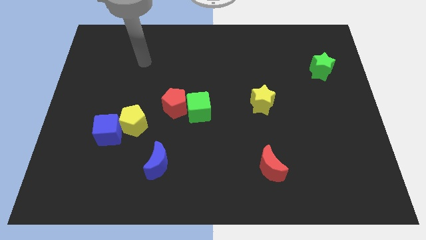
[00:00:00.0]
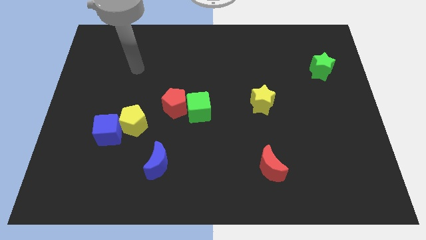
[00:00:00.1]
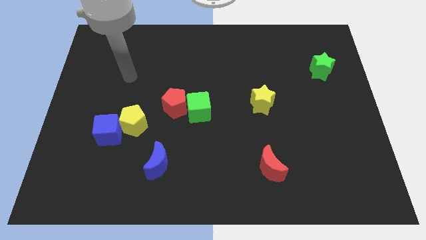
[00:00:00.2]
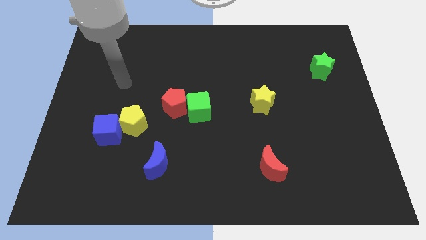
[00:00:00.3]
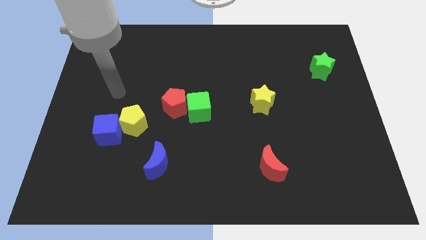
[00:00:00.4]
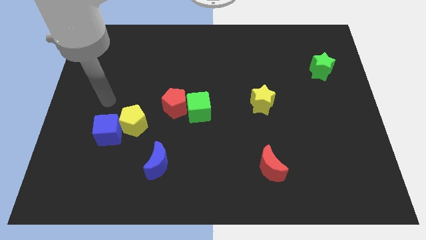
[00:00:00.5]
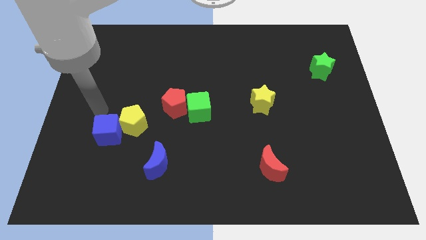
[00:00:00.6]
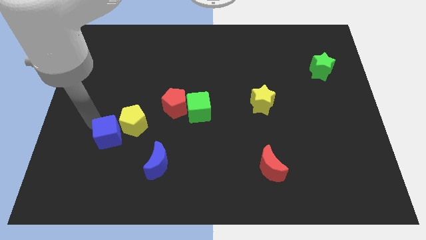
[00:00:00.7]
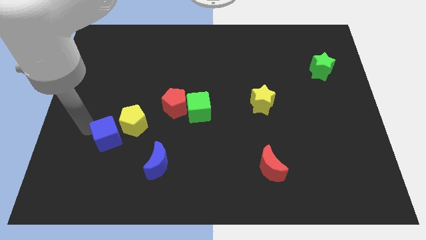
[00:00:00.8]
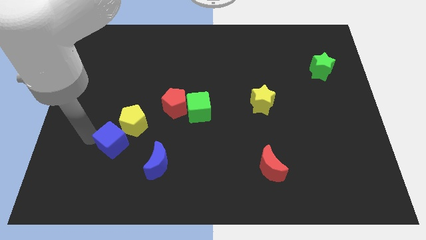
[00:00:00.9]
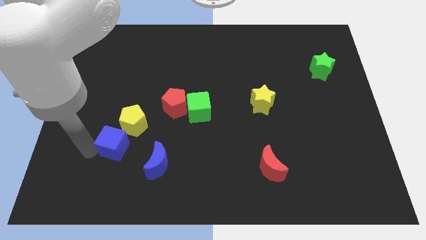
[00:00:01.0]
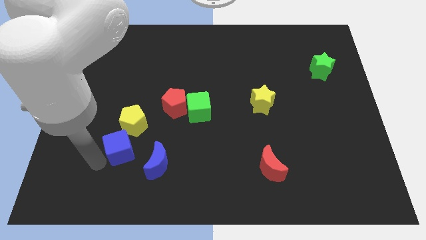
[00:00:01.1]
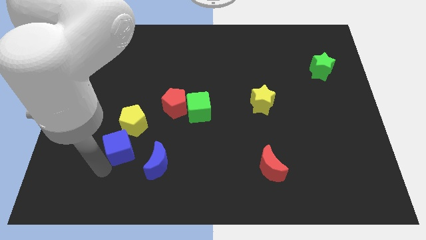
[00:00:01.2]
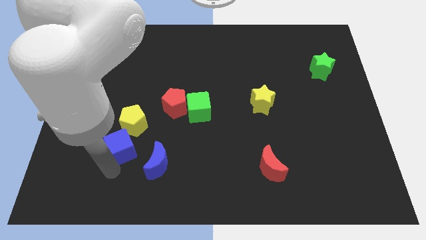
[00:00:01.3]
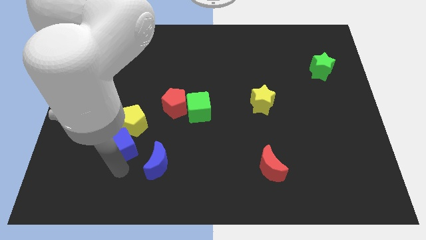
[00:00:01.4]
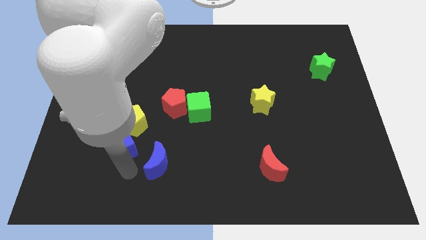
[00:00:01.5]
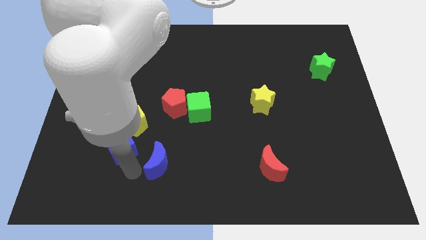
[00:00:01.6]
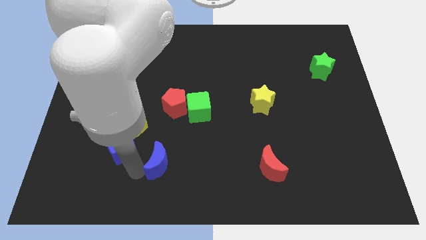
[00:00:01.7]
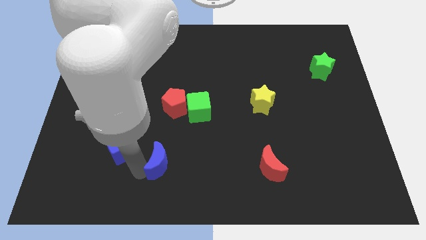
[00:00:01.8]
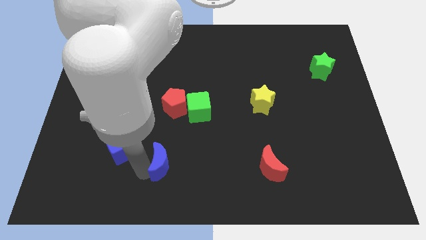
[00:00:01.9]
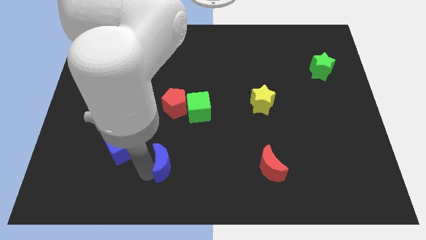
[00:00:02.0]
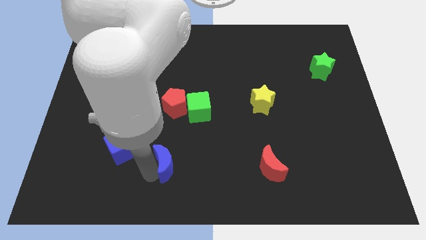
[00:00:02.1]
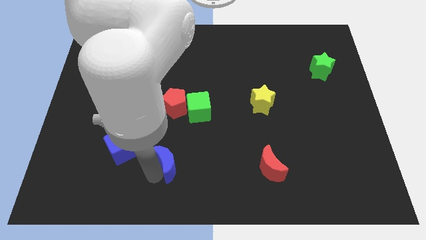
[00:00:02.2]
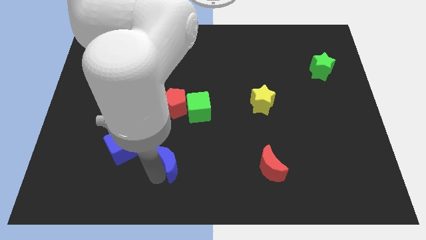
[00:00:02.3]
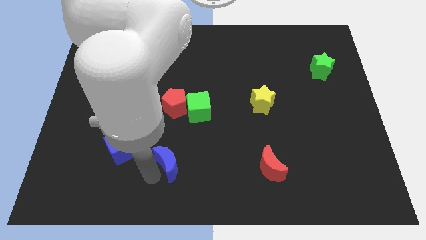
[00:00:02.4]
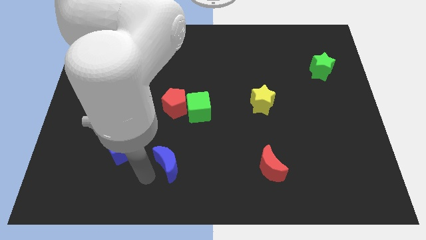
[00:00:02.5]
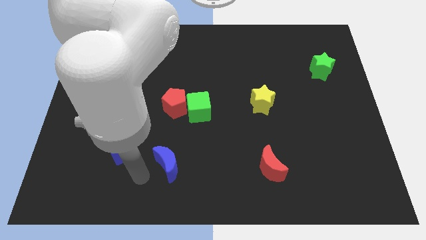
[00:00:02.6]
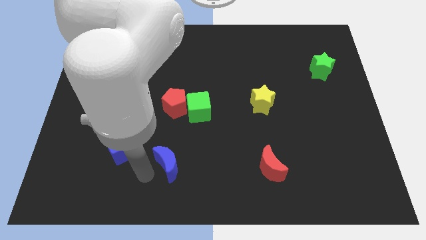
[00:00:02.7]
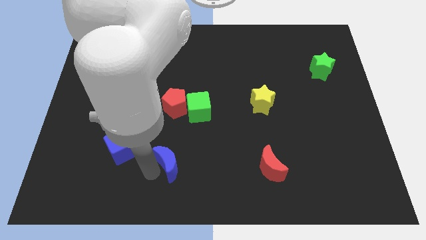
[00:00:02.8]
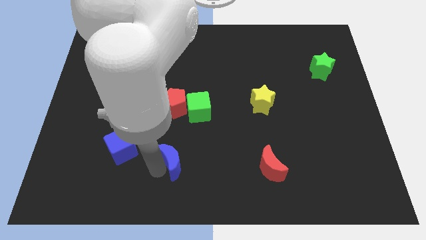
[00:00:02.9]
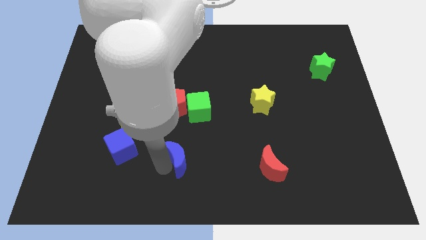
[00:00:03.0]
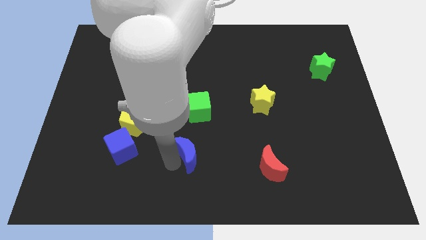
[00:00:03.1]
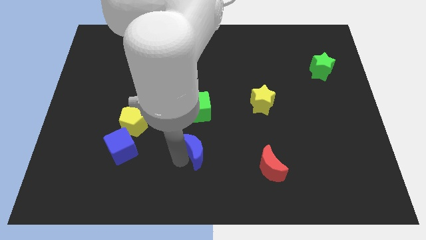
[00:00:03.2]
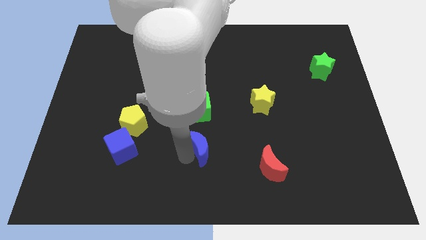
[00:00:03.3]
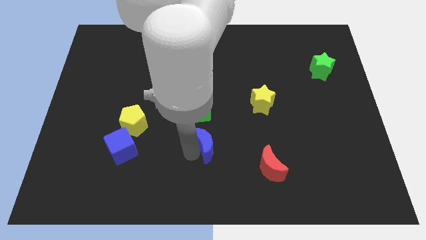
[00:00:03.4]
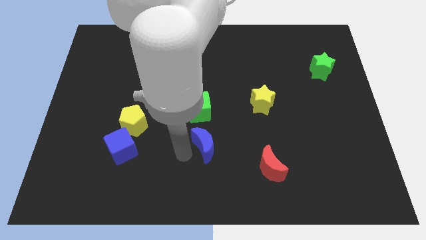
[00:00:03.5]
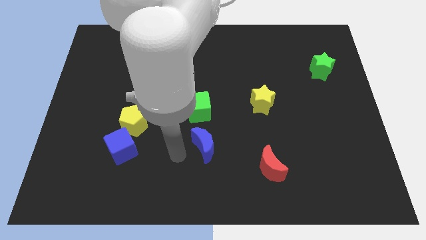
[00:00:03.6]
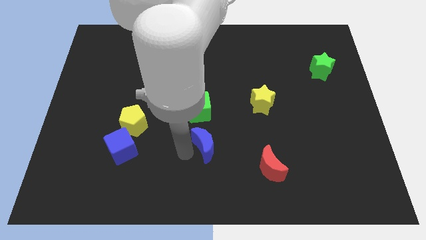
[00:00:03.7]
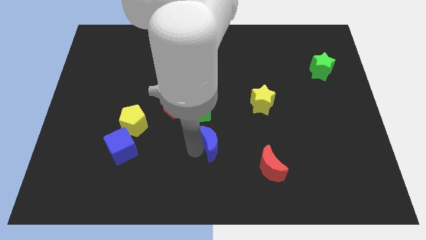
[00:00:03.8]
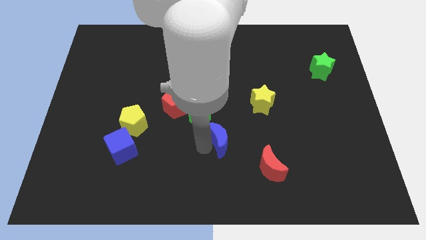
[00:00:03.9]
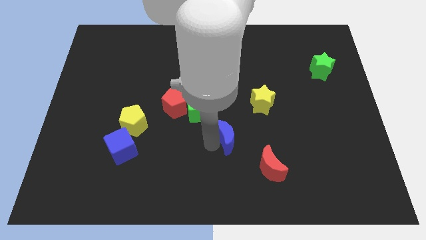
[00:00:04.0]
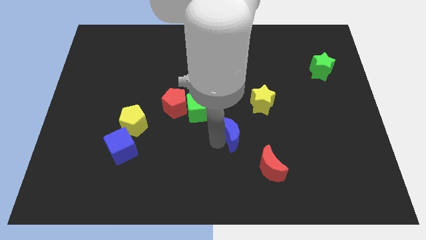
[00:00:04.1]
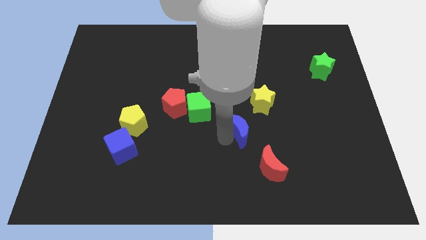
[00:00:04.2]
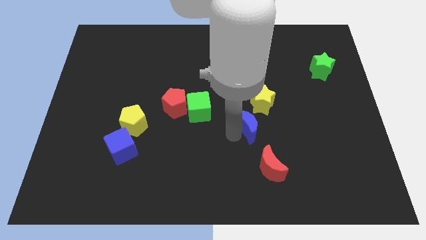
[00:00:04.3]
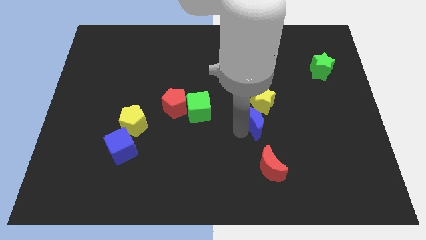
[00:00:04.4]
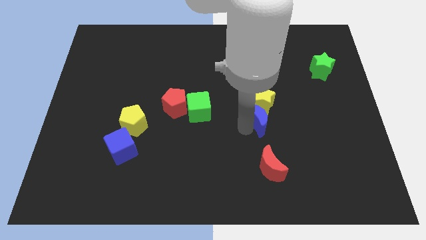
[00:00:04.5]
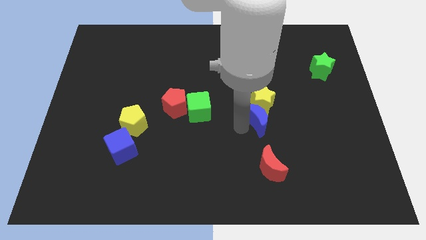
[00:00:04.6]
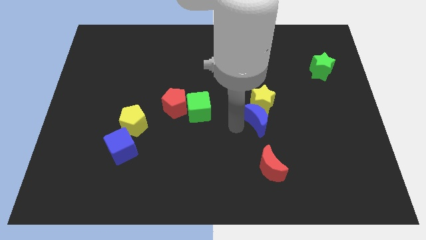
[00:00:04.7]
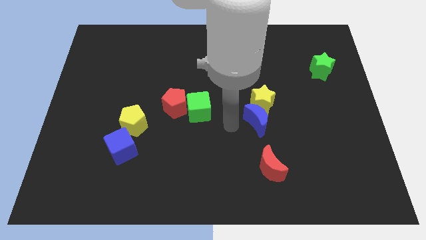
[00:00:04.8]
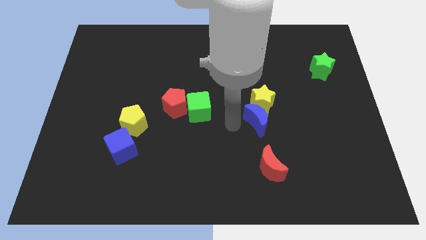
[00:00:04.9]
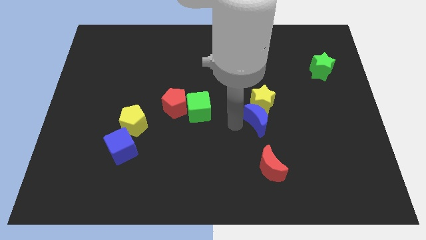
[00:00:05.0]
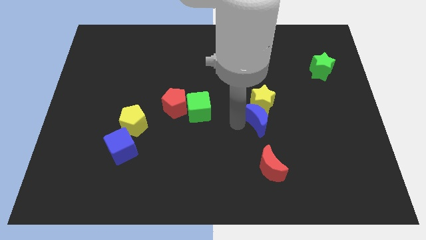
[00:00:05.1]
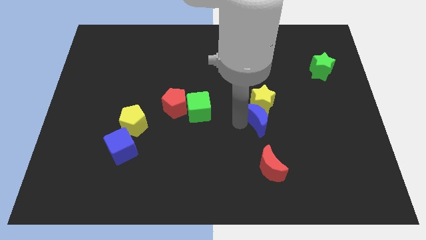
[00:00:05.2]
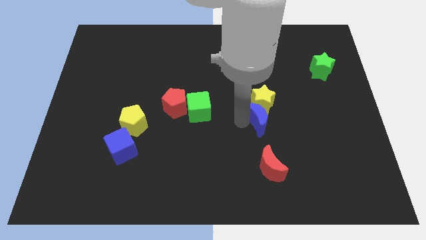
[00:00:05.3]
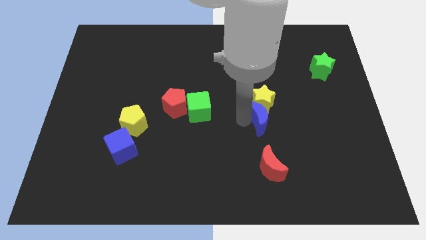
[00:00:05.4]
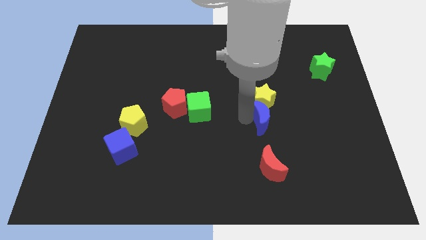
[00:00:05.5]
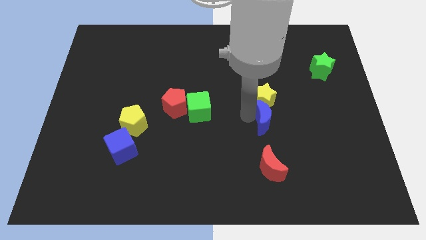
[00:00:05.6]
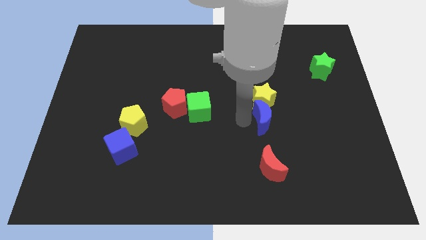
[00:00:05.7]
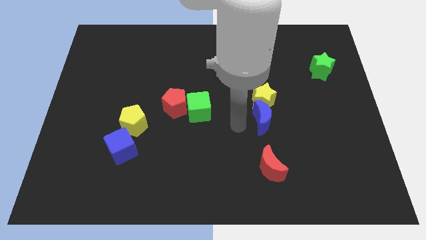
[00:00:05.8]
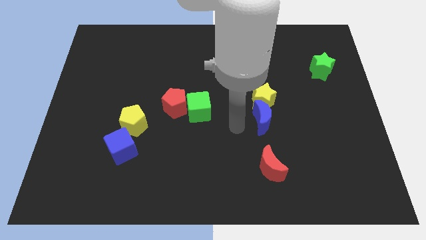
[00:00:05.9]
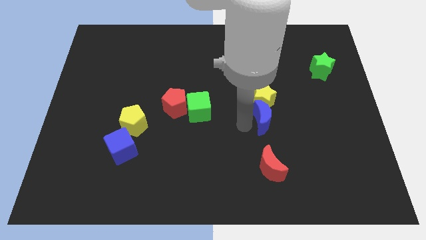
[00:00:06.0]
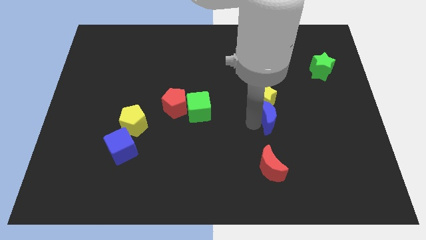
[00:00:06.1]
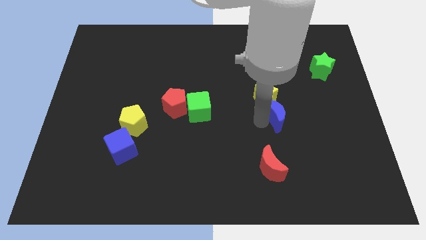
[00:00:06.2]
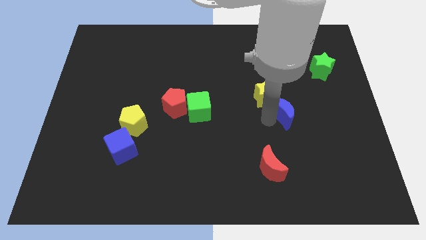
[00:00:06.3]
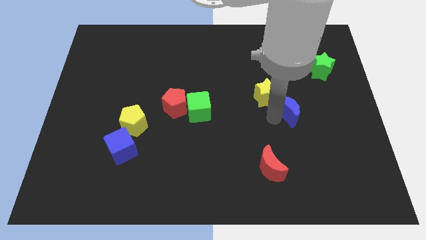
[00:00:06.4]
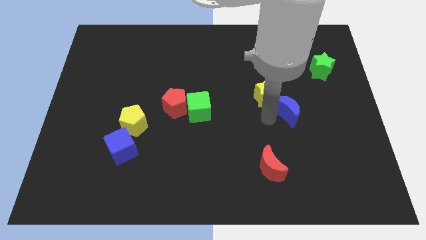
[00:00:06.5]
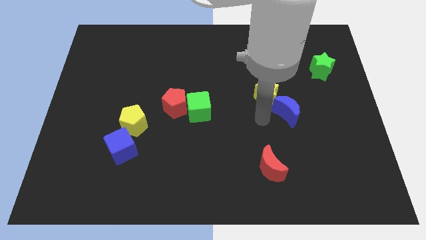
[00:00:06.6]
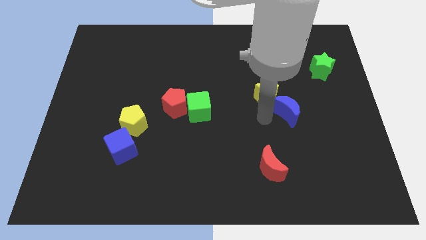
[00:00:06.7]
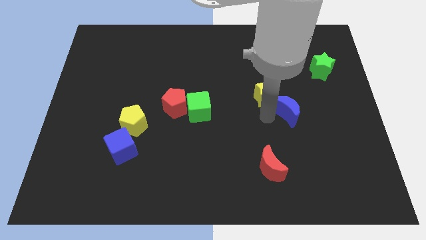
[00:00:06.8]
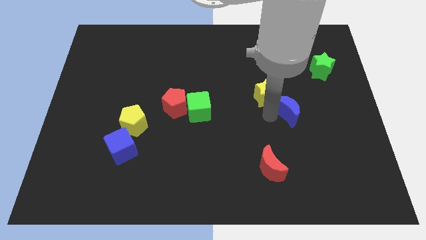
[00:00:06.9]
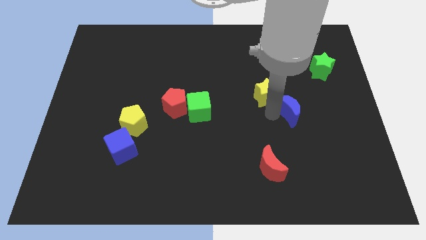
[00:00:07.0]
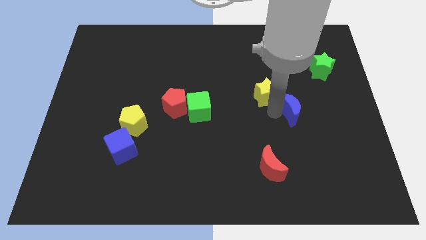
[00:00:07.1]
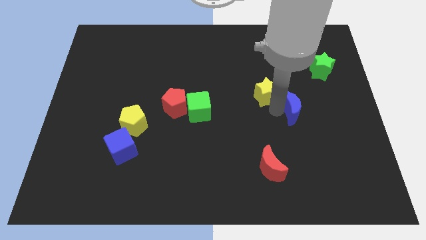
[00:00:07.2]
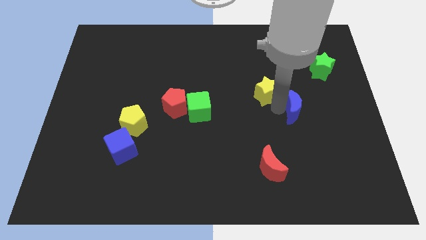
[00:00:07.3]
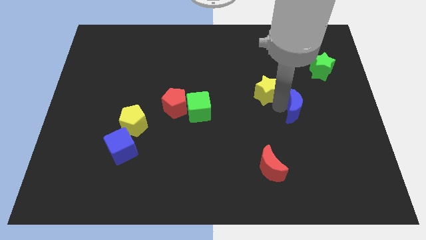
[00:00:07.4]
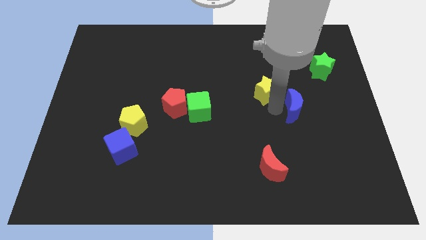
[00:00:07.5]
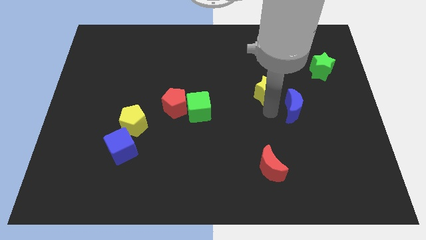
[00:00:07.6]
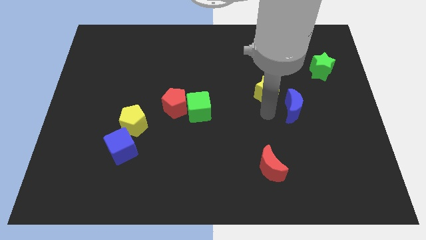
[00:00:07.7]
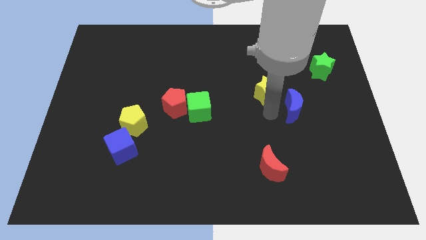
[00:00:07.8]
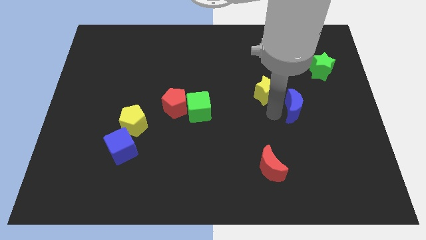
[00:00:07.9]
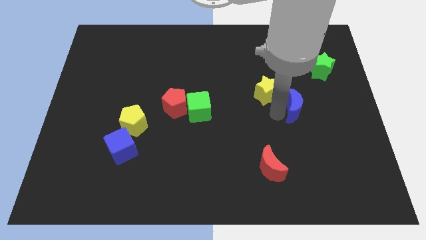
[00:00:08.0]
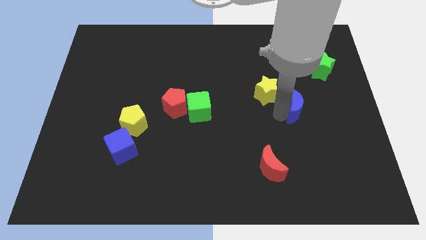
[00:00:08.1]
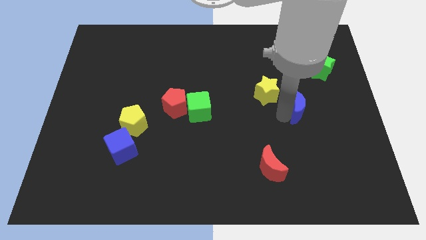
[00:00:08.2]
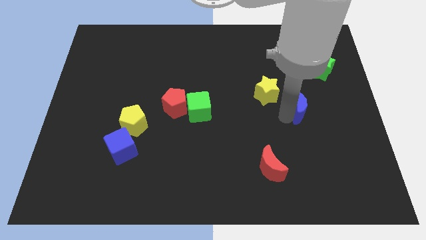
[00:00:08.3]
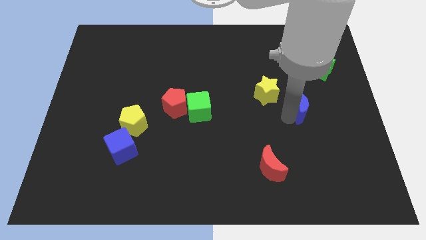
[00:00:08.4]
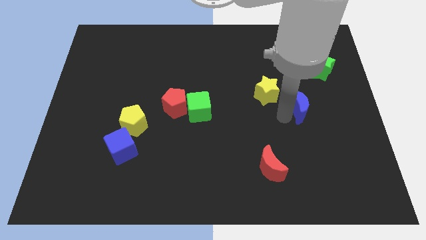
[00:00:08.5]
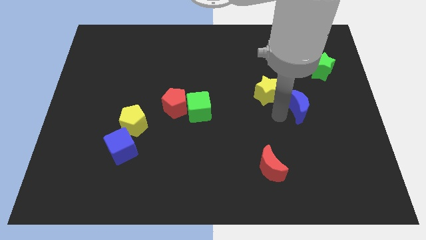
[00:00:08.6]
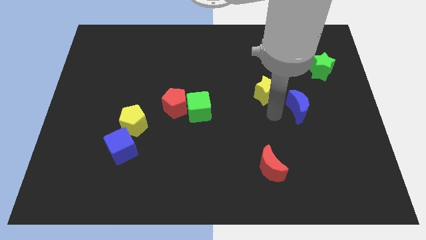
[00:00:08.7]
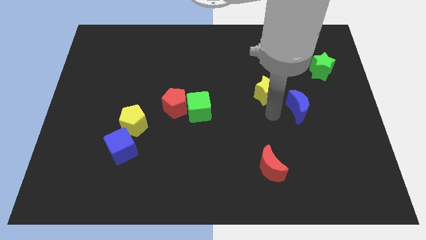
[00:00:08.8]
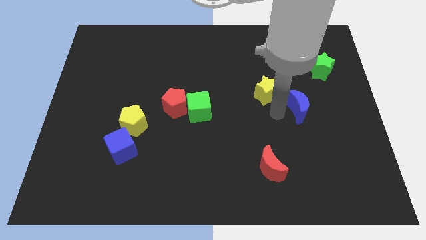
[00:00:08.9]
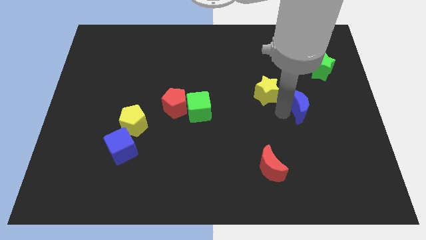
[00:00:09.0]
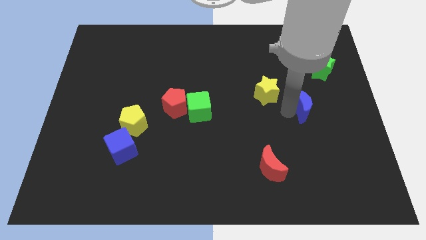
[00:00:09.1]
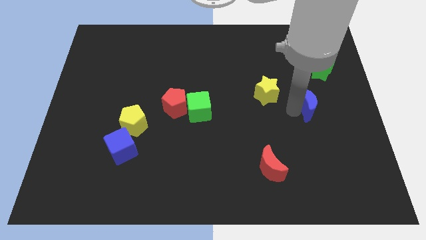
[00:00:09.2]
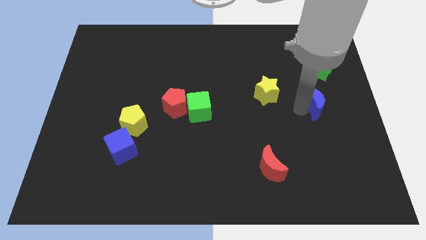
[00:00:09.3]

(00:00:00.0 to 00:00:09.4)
put the blue moon to the bottom side of the green star
